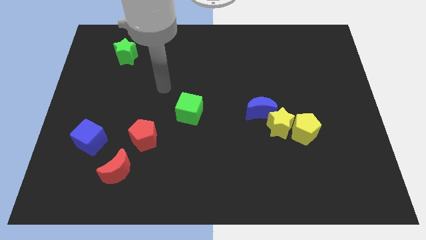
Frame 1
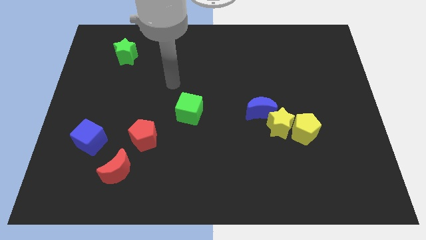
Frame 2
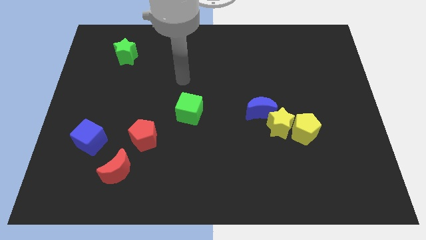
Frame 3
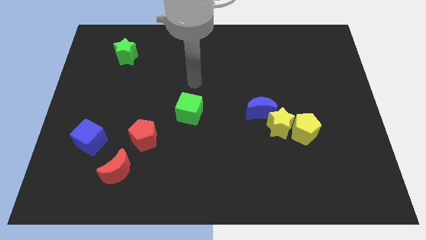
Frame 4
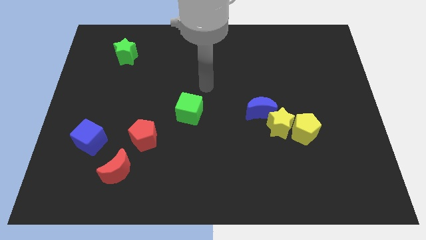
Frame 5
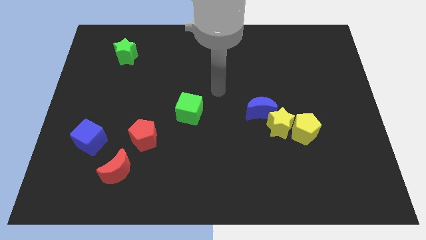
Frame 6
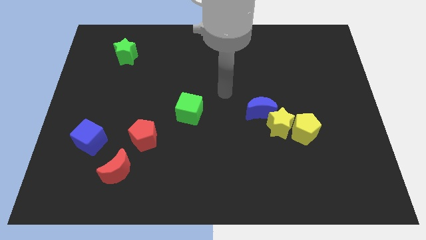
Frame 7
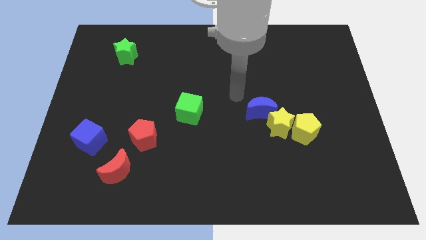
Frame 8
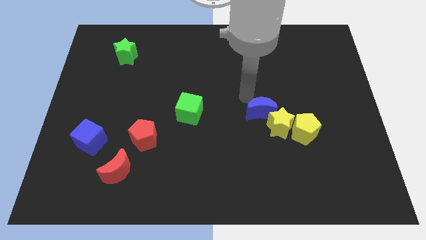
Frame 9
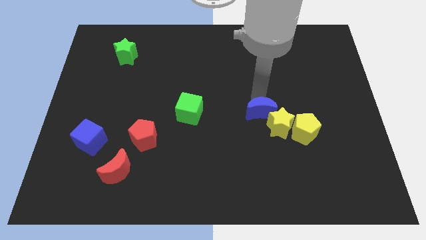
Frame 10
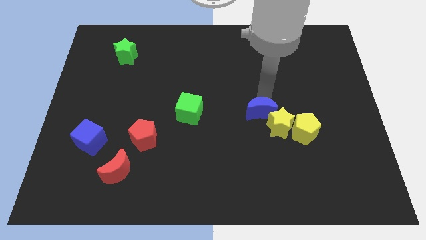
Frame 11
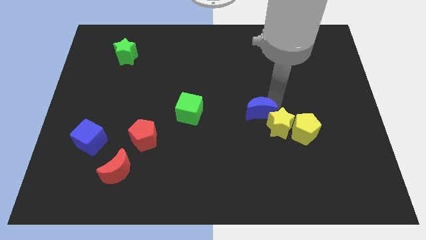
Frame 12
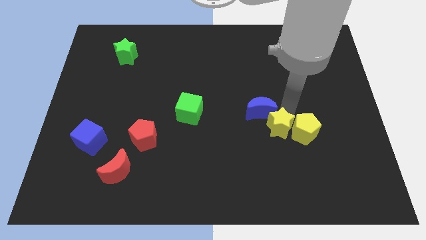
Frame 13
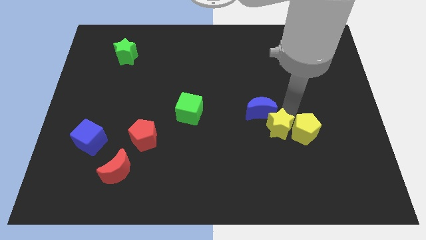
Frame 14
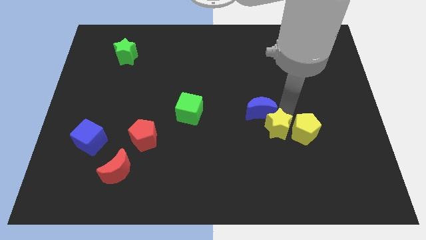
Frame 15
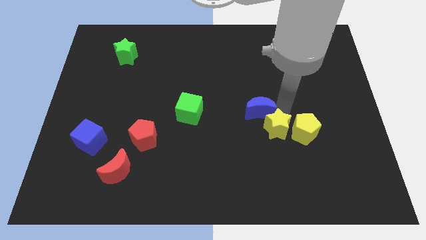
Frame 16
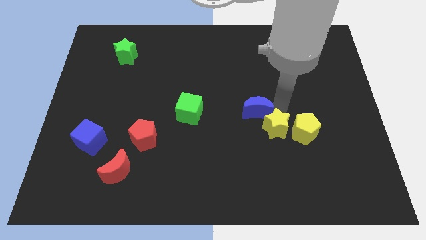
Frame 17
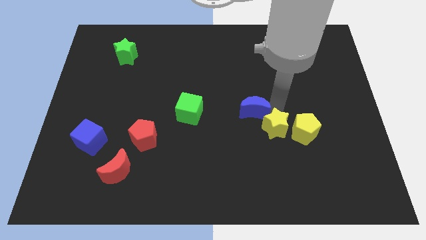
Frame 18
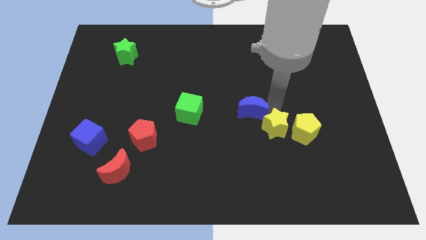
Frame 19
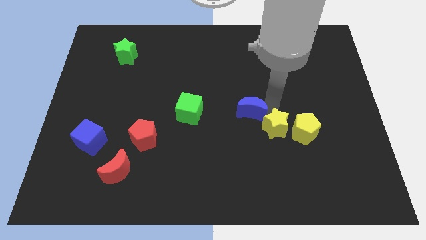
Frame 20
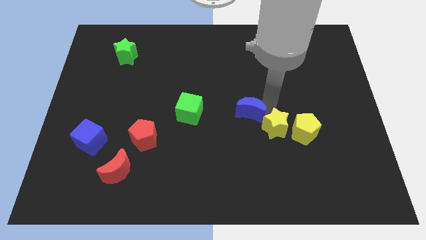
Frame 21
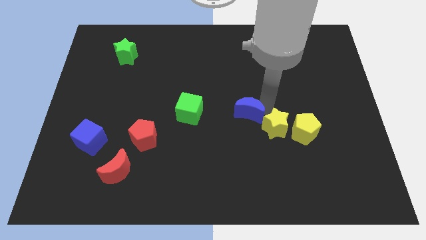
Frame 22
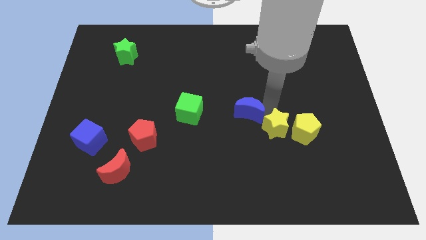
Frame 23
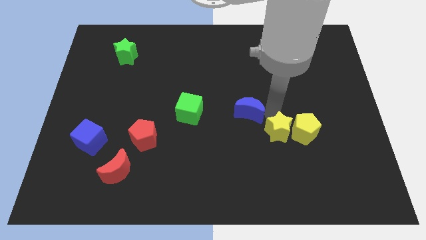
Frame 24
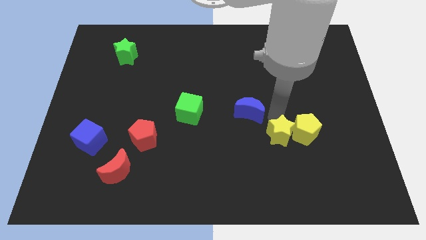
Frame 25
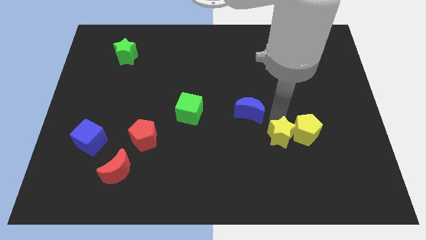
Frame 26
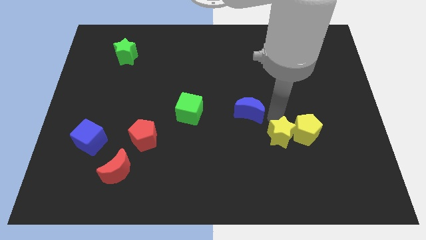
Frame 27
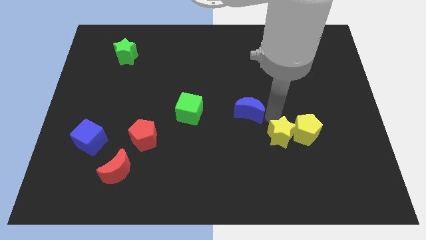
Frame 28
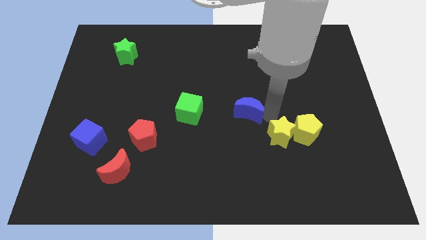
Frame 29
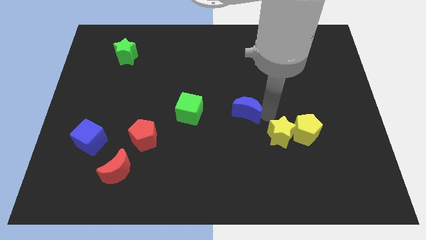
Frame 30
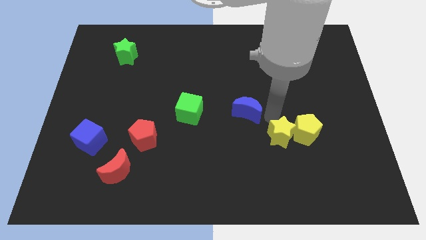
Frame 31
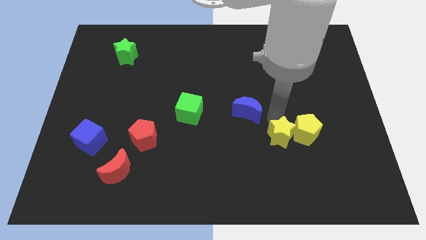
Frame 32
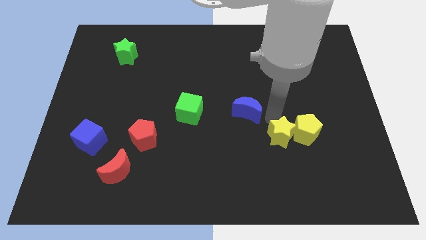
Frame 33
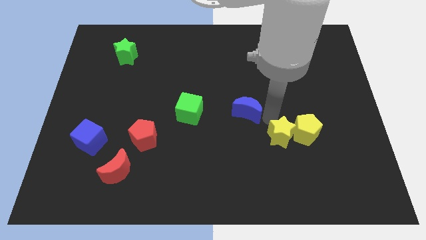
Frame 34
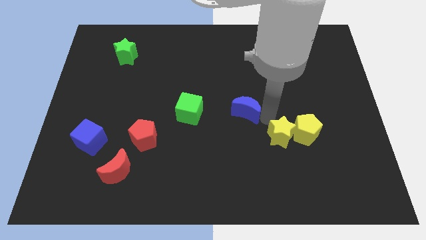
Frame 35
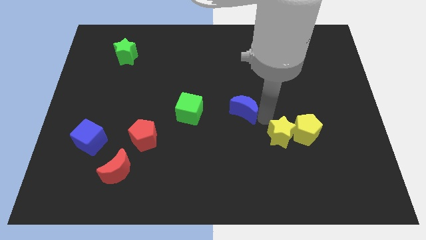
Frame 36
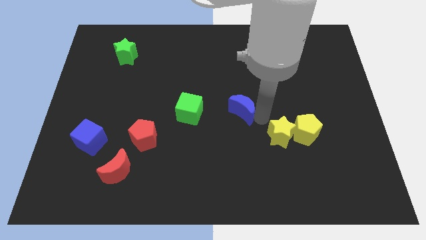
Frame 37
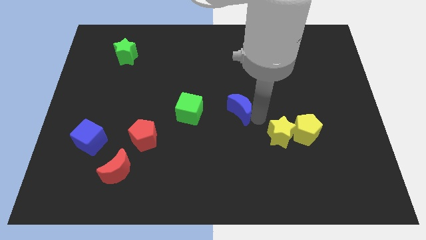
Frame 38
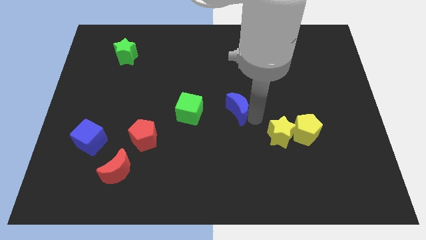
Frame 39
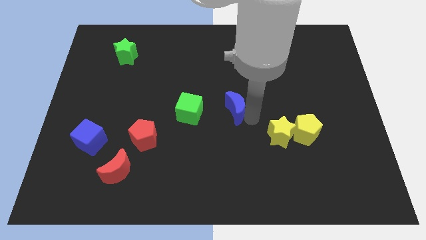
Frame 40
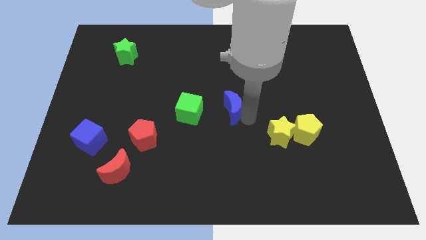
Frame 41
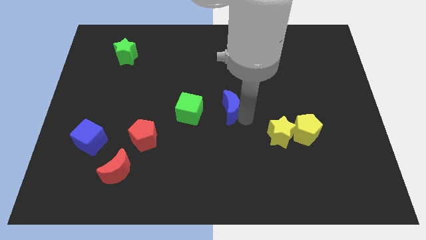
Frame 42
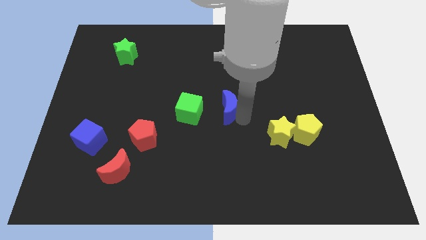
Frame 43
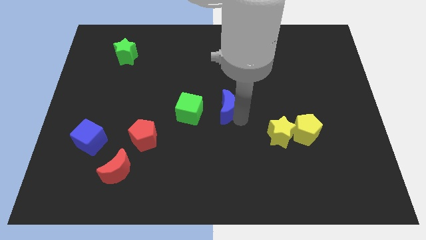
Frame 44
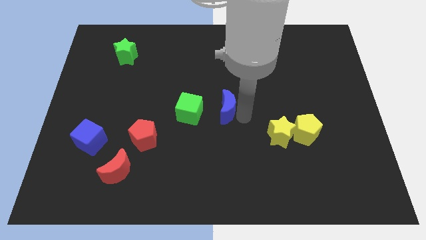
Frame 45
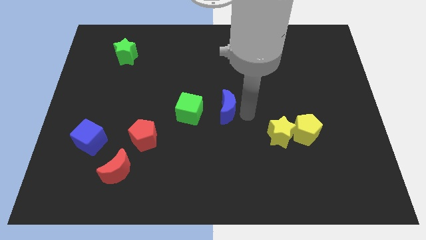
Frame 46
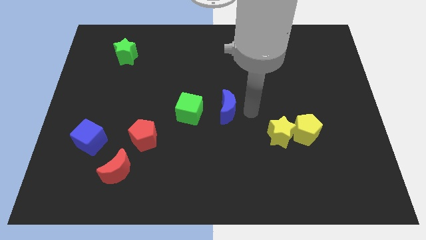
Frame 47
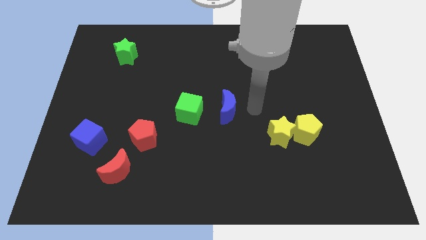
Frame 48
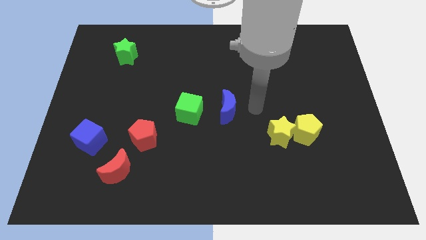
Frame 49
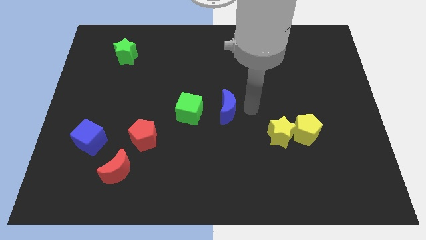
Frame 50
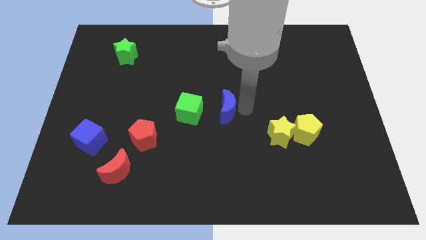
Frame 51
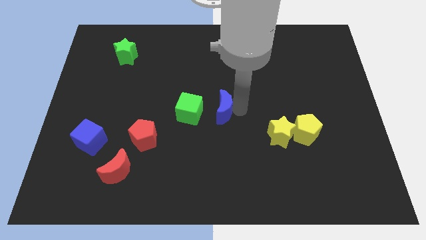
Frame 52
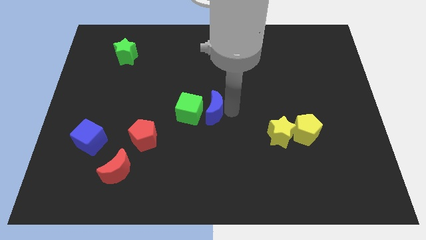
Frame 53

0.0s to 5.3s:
push the blue moon next to the green cube

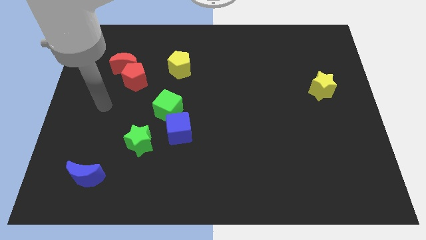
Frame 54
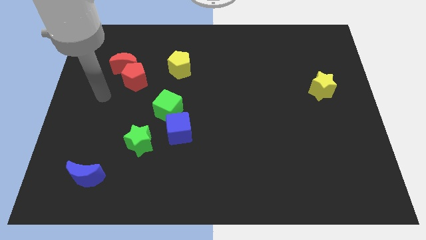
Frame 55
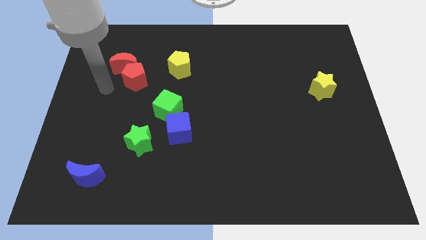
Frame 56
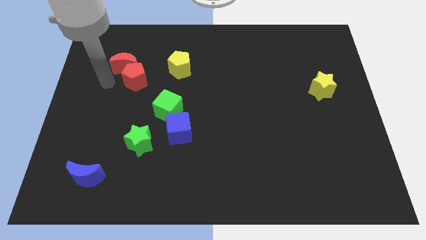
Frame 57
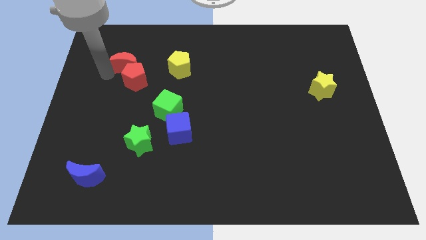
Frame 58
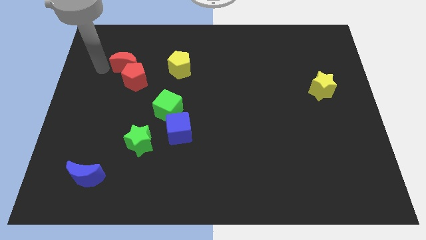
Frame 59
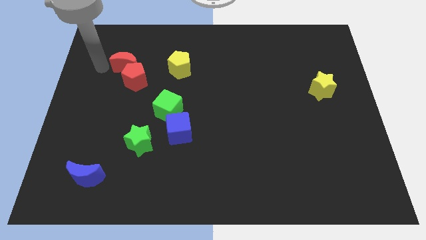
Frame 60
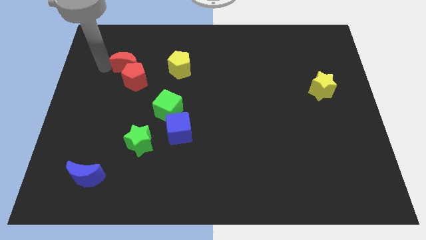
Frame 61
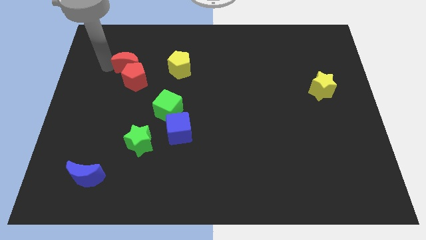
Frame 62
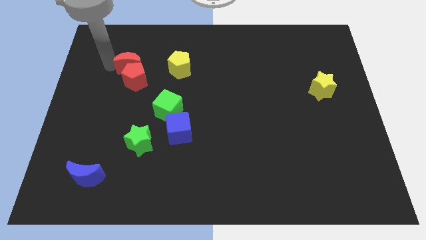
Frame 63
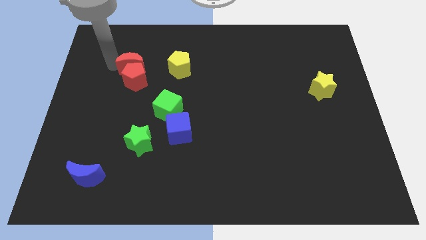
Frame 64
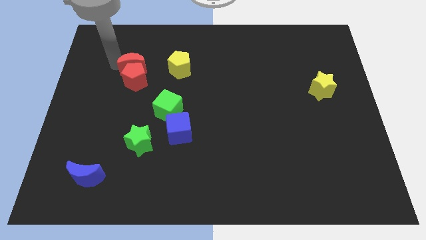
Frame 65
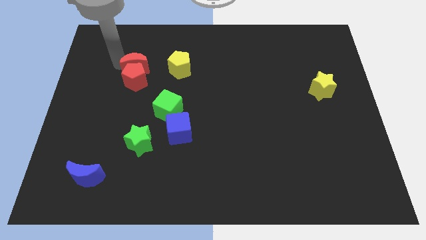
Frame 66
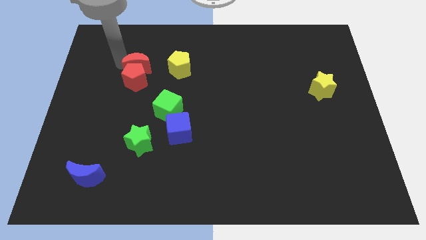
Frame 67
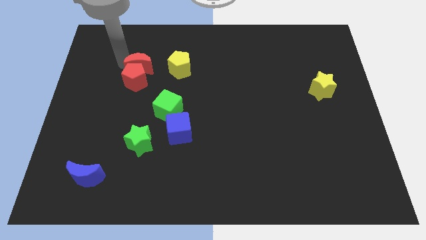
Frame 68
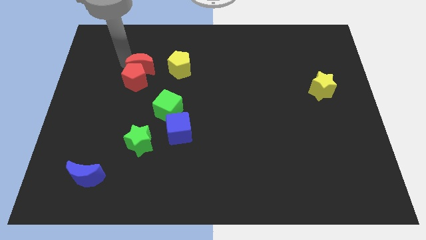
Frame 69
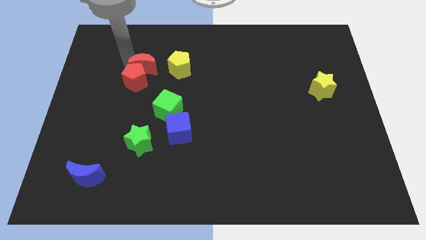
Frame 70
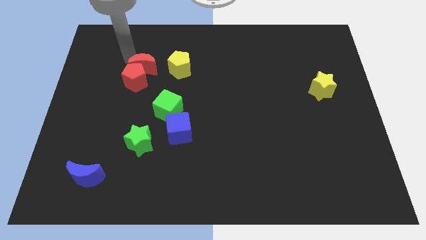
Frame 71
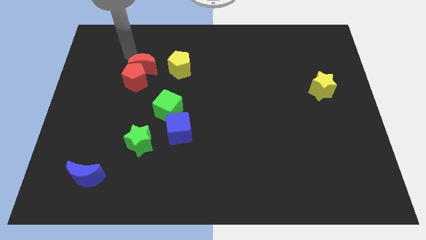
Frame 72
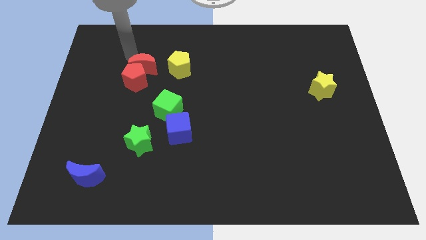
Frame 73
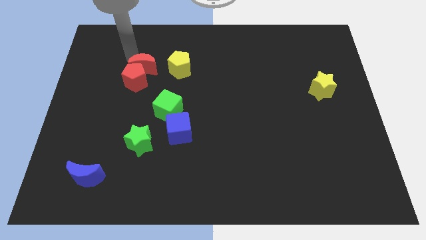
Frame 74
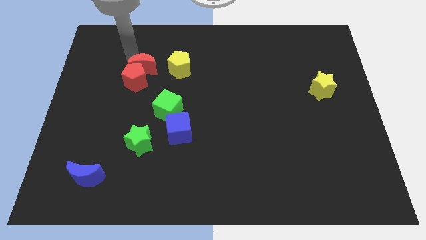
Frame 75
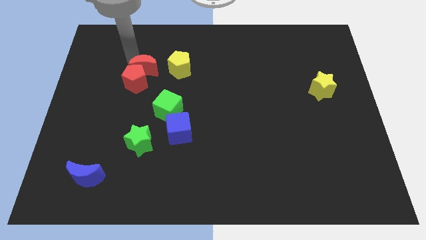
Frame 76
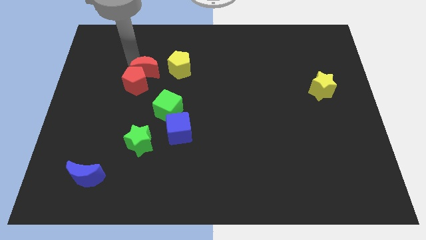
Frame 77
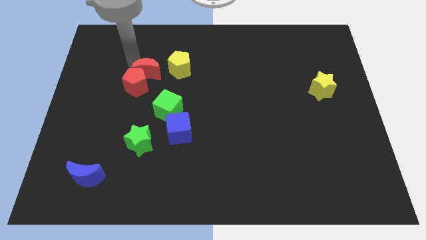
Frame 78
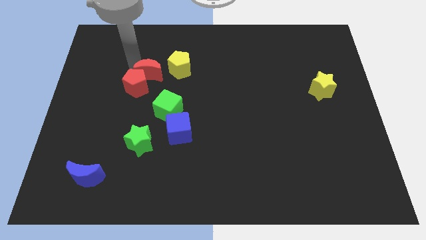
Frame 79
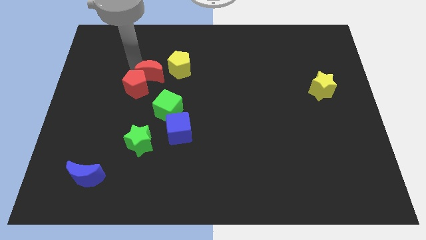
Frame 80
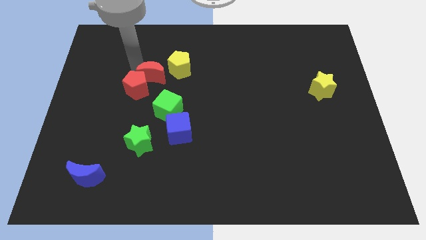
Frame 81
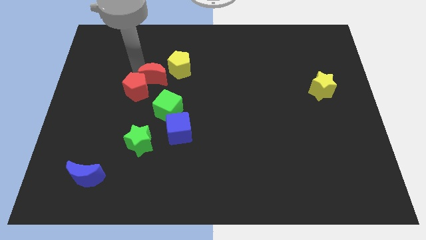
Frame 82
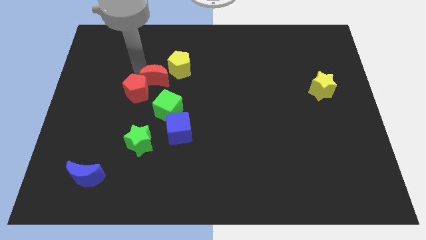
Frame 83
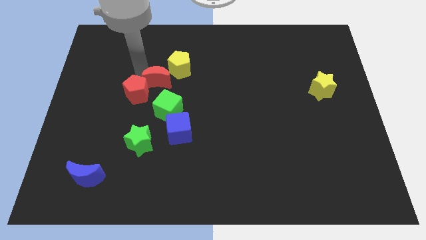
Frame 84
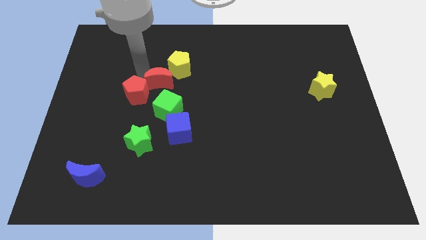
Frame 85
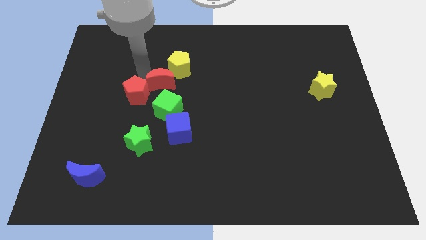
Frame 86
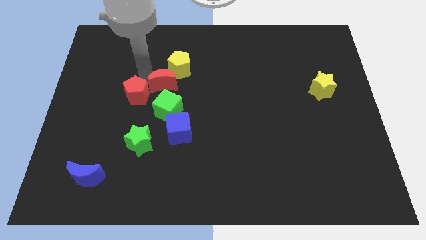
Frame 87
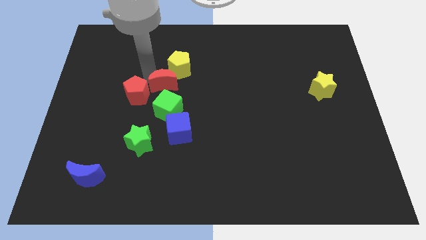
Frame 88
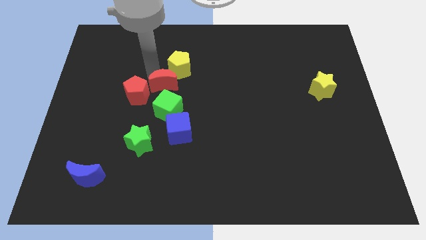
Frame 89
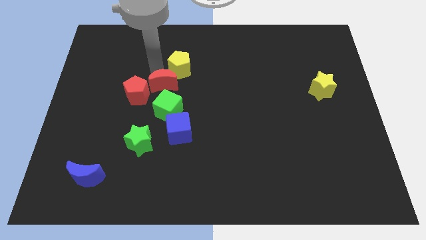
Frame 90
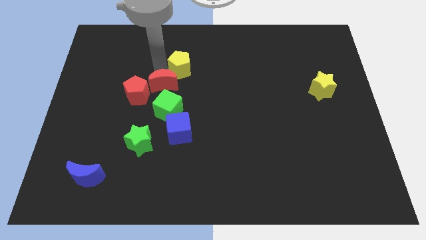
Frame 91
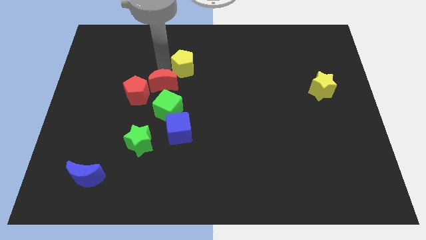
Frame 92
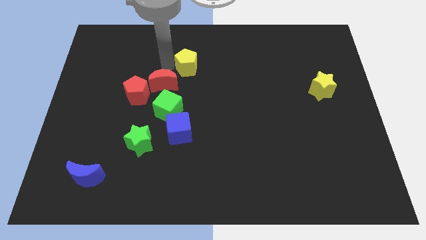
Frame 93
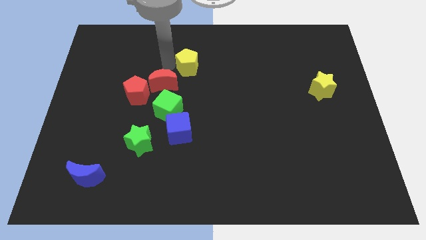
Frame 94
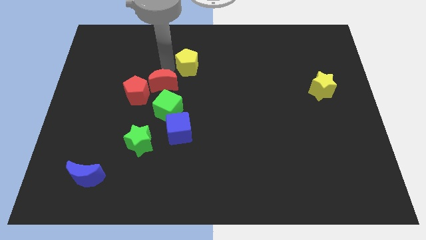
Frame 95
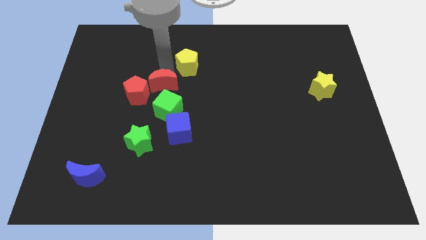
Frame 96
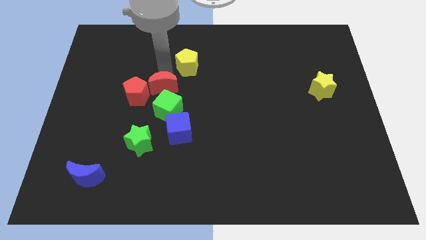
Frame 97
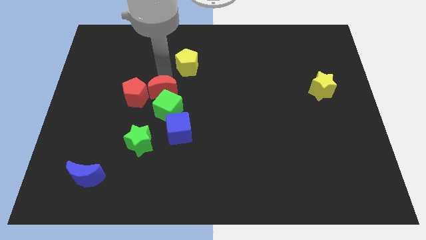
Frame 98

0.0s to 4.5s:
push the red moon close to the green cube
